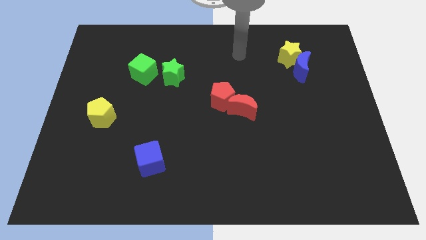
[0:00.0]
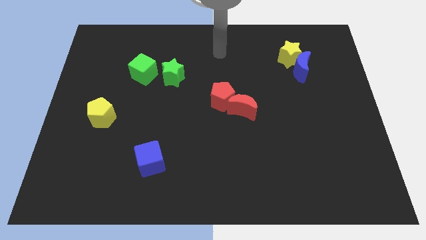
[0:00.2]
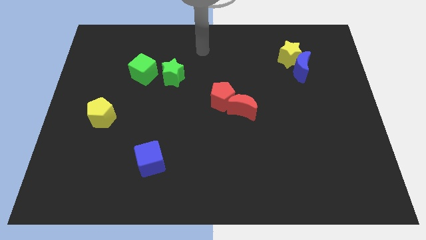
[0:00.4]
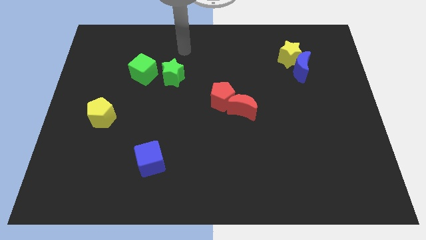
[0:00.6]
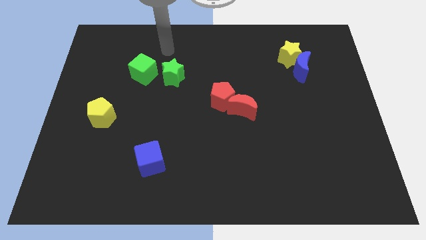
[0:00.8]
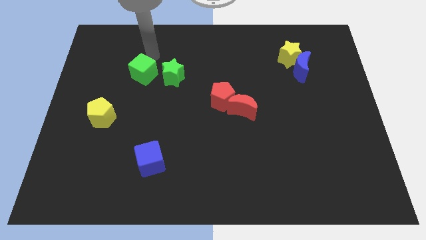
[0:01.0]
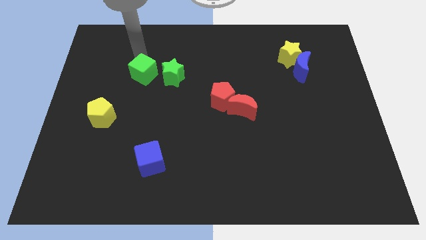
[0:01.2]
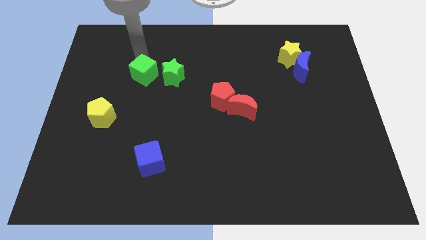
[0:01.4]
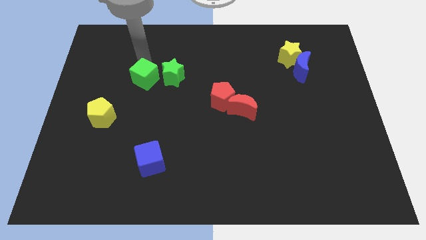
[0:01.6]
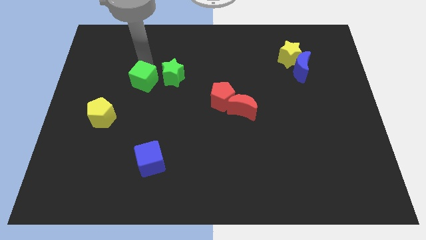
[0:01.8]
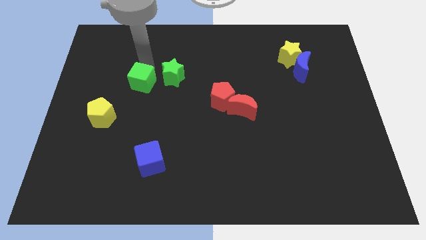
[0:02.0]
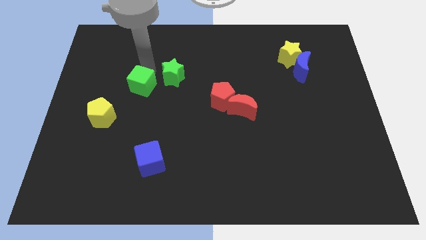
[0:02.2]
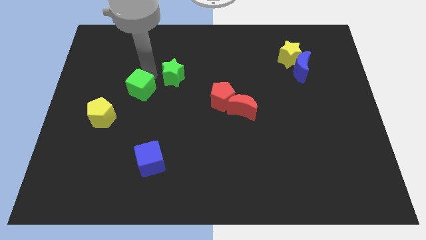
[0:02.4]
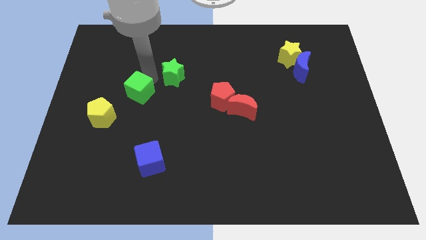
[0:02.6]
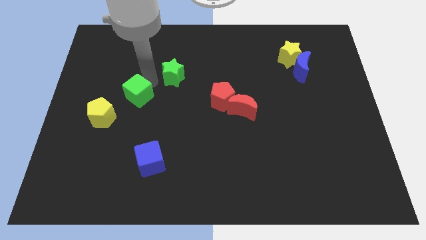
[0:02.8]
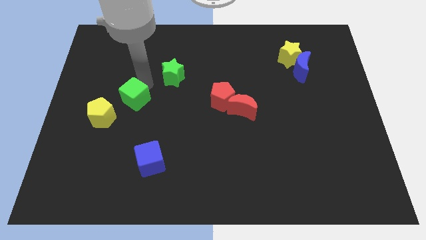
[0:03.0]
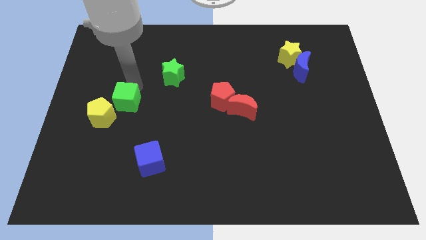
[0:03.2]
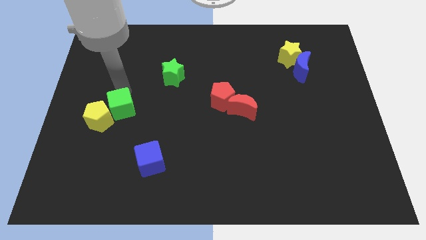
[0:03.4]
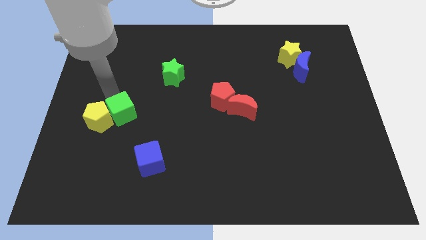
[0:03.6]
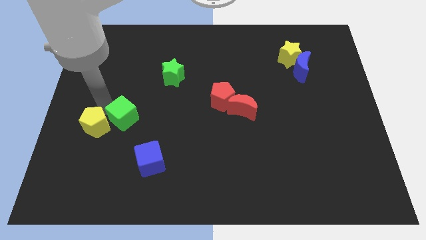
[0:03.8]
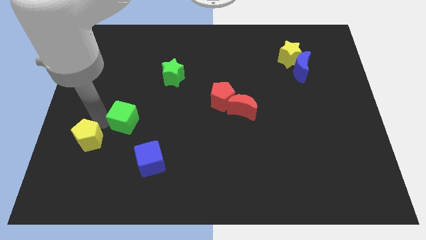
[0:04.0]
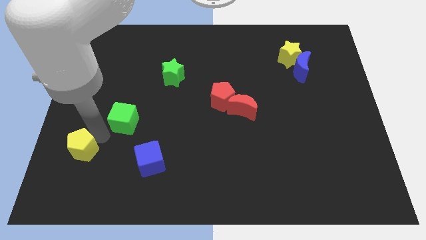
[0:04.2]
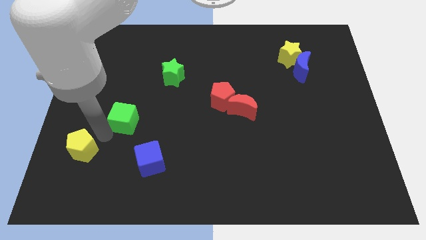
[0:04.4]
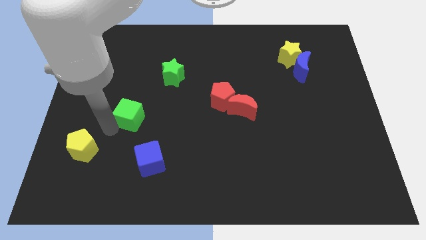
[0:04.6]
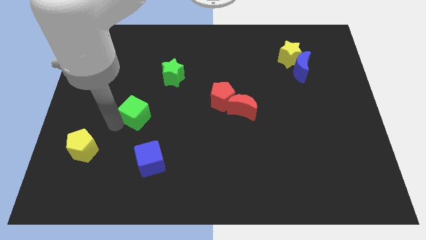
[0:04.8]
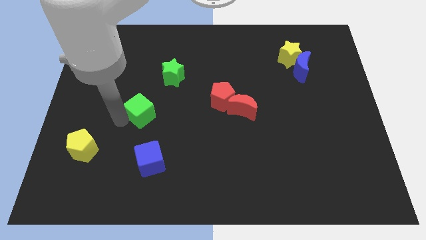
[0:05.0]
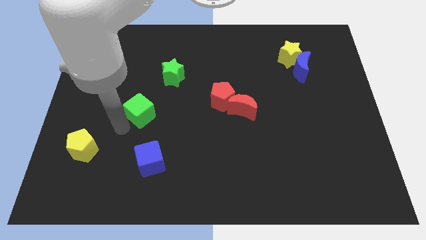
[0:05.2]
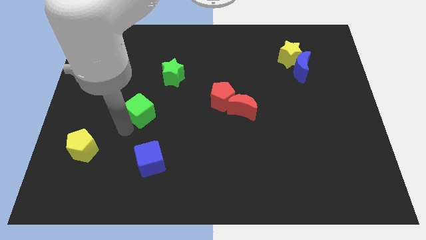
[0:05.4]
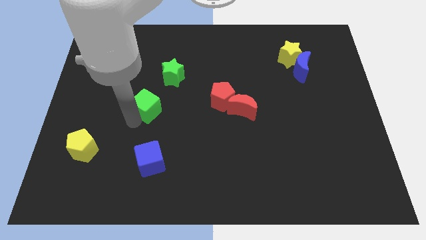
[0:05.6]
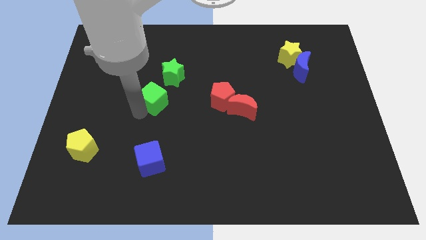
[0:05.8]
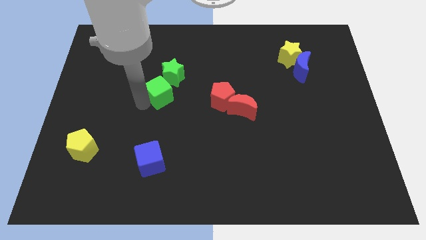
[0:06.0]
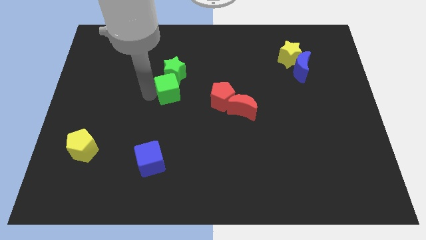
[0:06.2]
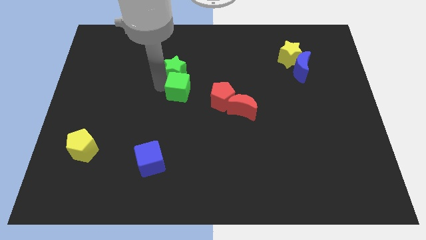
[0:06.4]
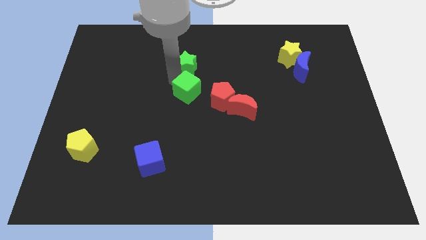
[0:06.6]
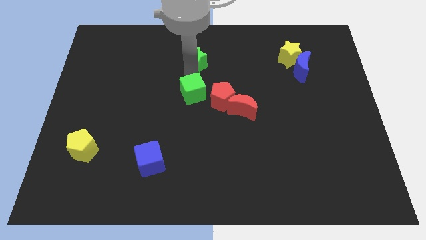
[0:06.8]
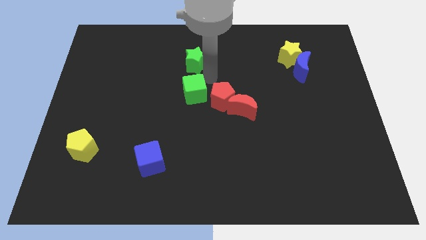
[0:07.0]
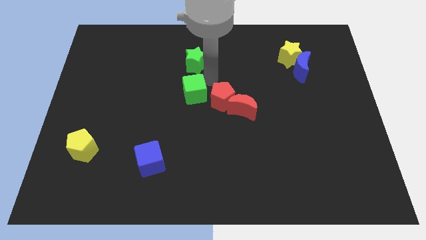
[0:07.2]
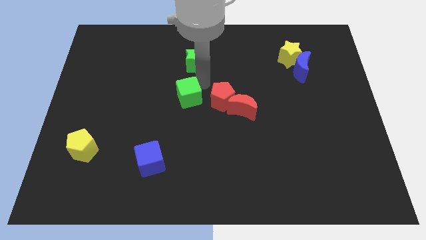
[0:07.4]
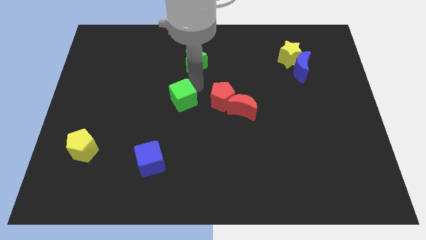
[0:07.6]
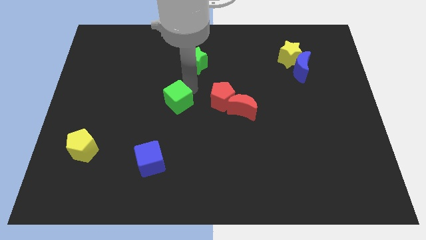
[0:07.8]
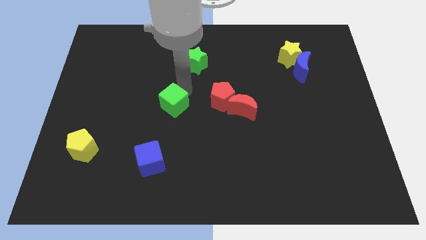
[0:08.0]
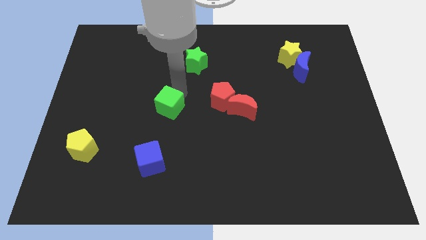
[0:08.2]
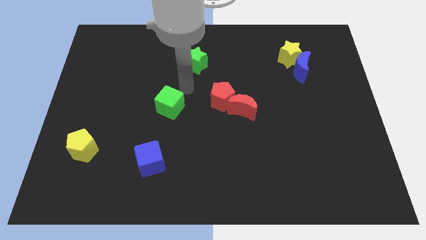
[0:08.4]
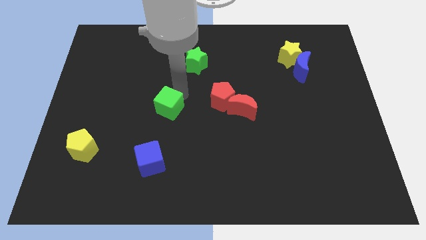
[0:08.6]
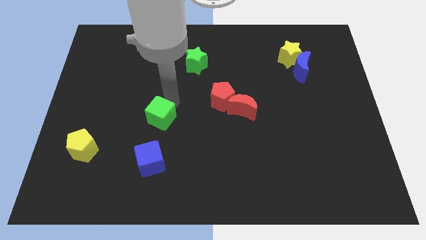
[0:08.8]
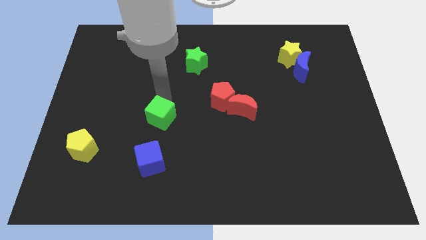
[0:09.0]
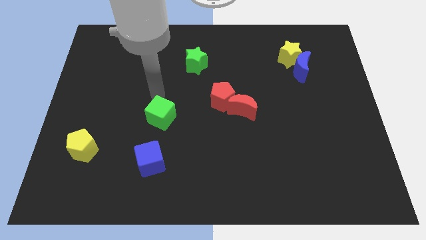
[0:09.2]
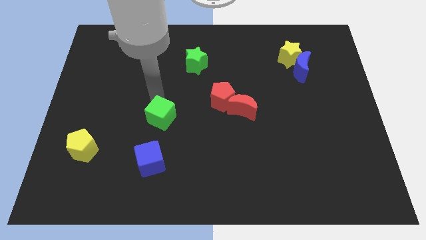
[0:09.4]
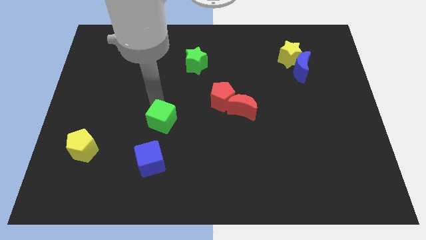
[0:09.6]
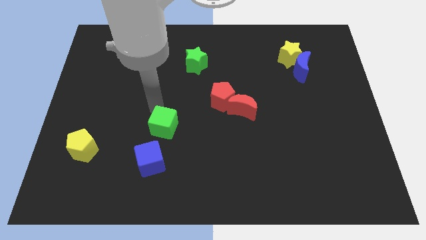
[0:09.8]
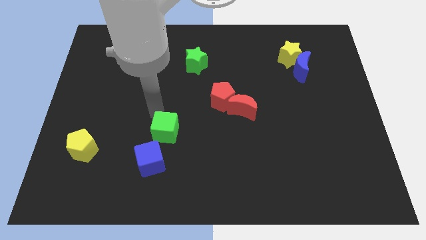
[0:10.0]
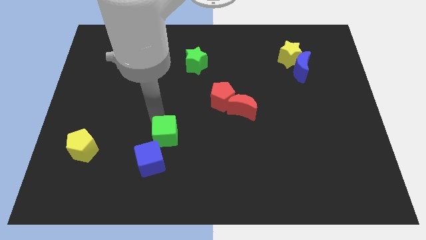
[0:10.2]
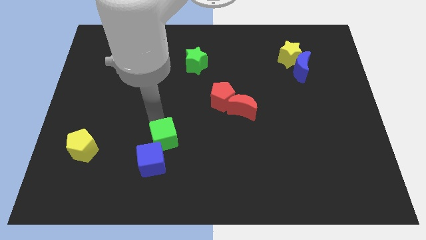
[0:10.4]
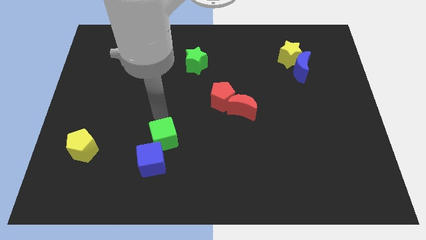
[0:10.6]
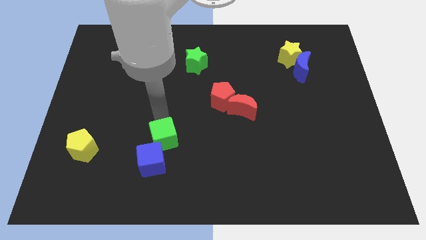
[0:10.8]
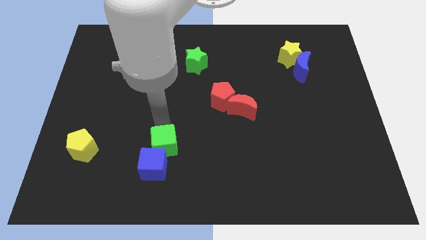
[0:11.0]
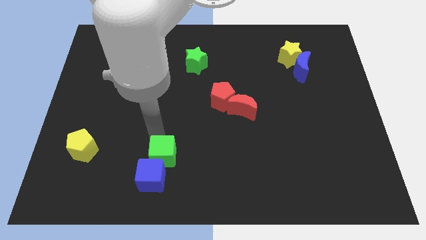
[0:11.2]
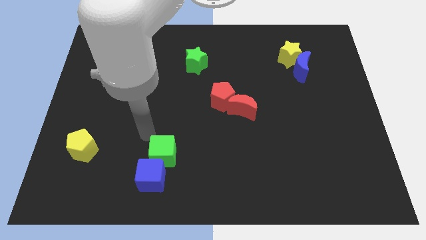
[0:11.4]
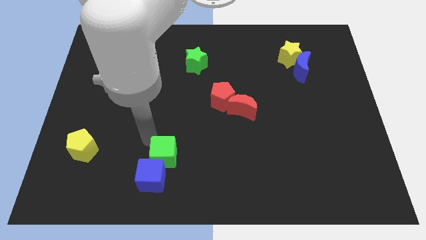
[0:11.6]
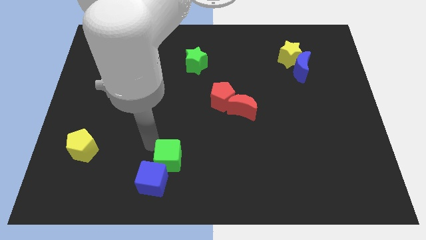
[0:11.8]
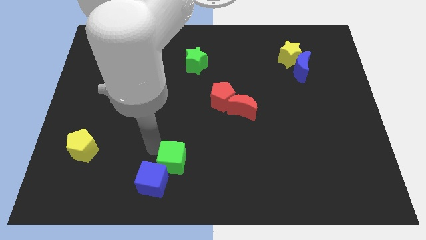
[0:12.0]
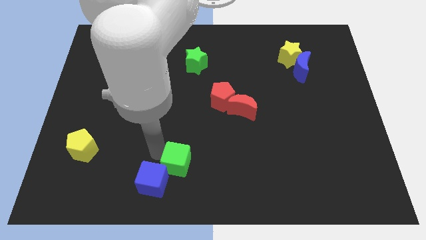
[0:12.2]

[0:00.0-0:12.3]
move the green cube to the bottom
